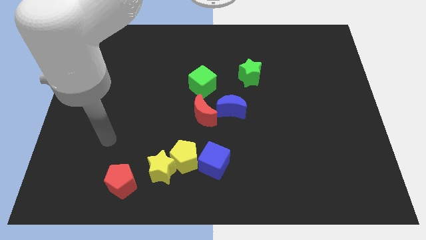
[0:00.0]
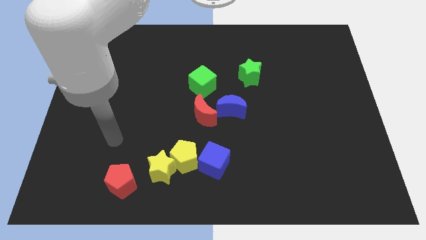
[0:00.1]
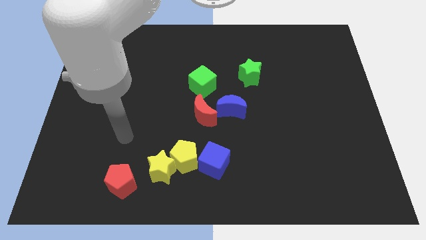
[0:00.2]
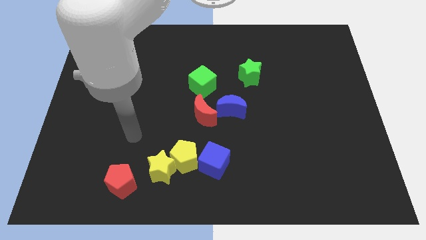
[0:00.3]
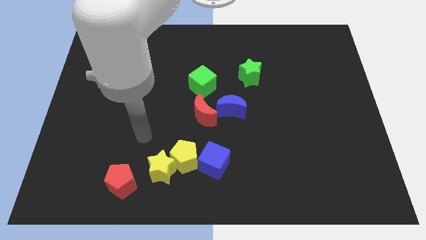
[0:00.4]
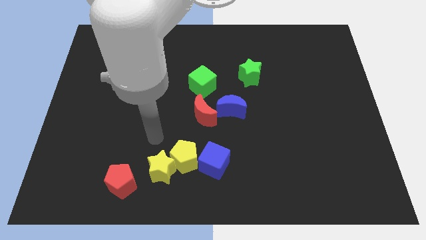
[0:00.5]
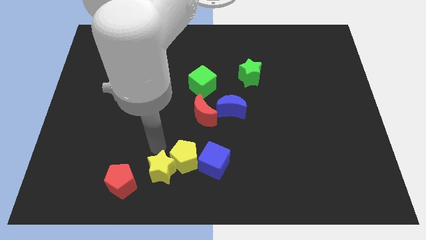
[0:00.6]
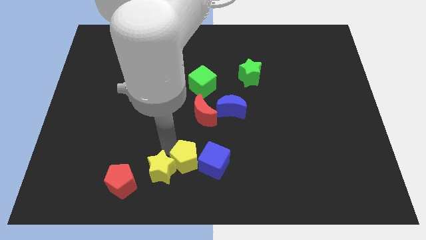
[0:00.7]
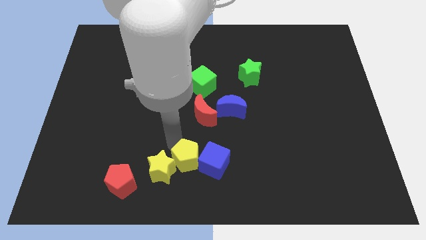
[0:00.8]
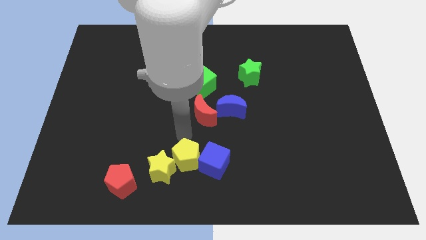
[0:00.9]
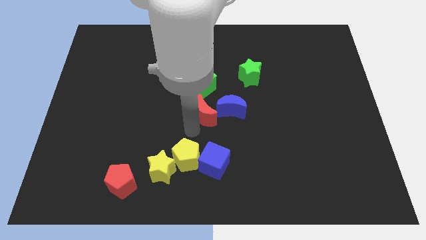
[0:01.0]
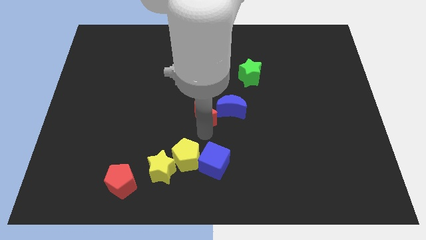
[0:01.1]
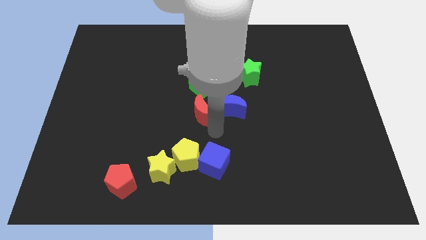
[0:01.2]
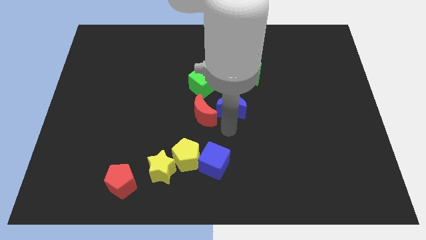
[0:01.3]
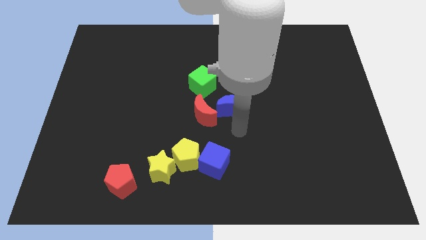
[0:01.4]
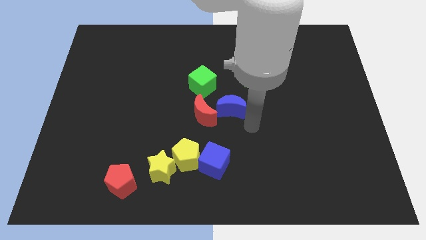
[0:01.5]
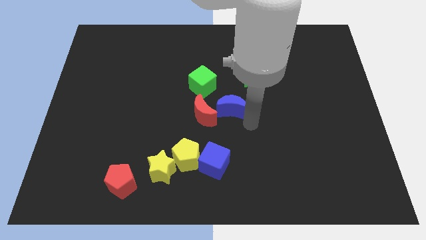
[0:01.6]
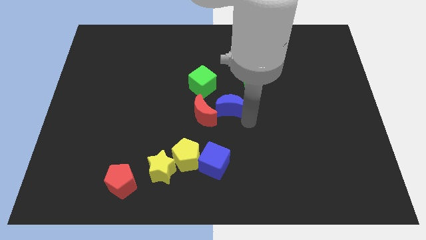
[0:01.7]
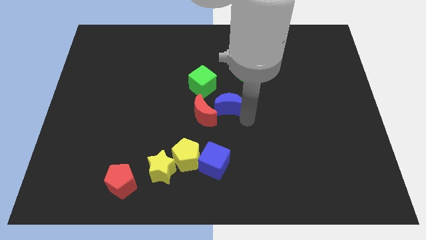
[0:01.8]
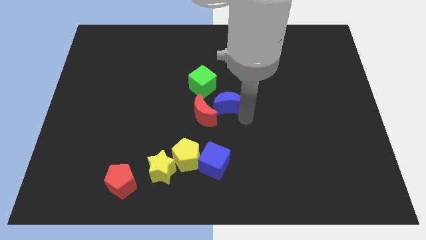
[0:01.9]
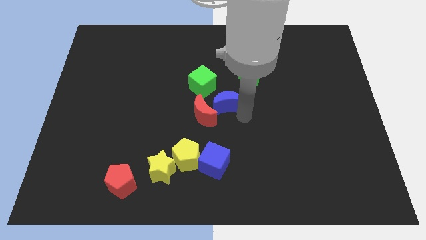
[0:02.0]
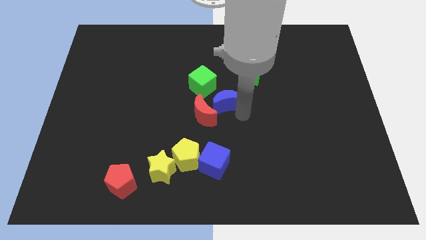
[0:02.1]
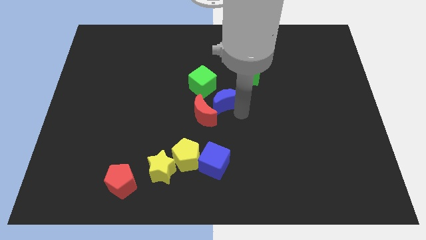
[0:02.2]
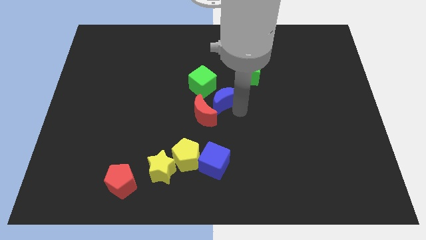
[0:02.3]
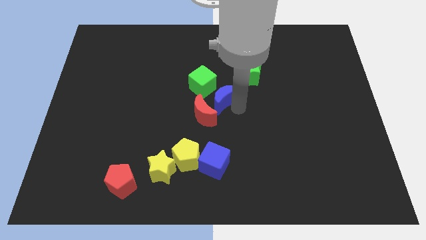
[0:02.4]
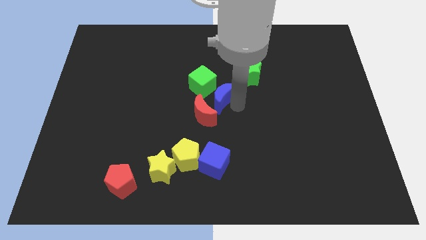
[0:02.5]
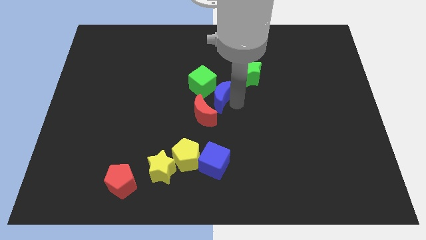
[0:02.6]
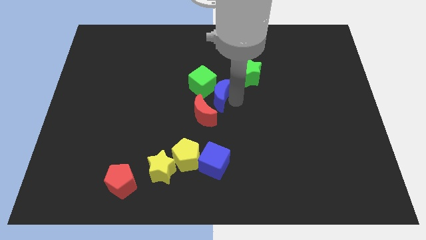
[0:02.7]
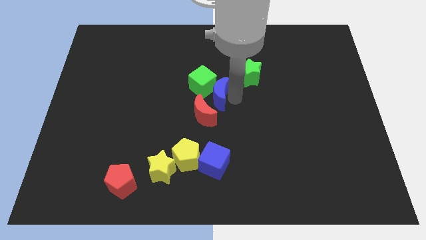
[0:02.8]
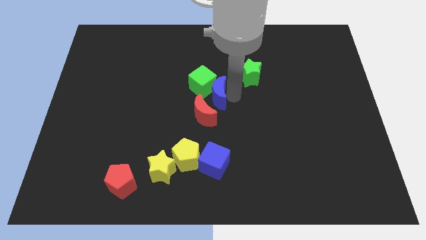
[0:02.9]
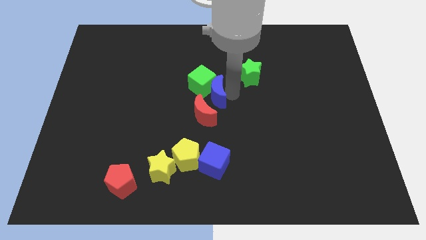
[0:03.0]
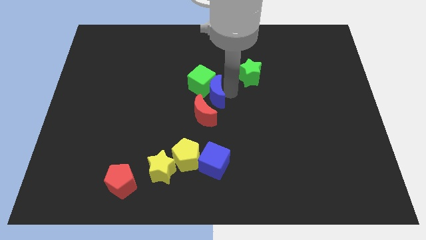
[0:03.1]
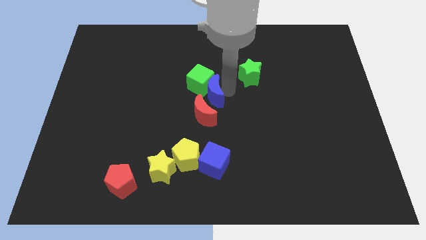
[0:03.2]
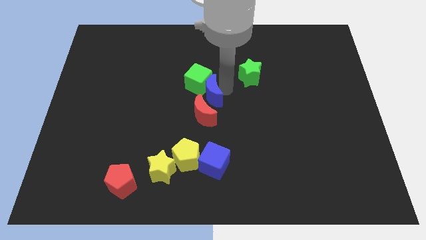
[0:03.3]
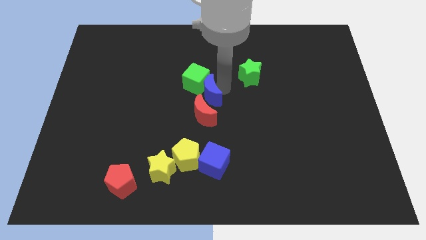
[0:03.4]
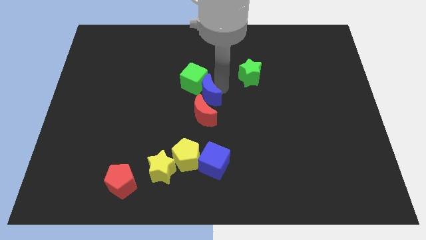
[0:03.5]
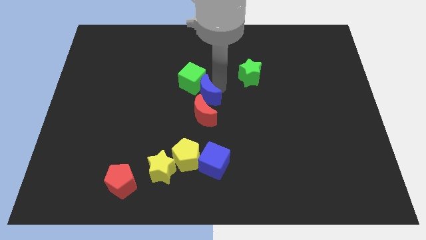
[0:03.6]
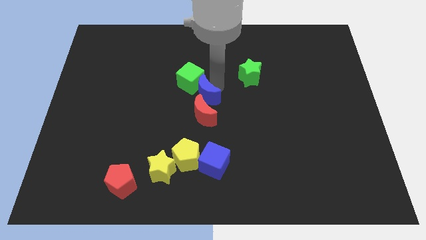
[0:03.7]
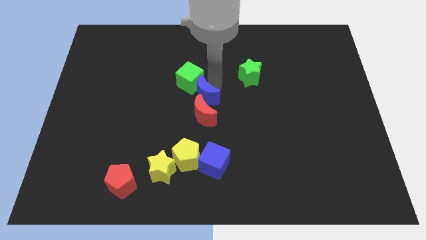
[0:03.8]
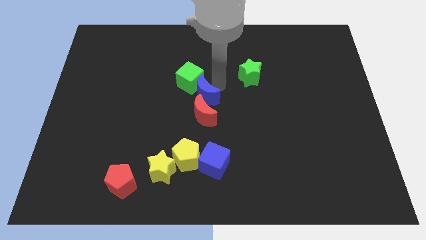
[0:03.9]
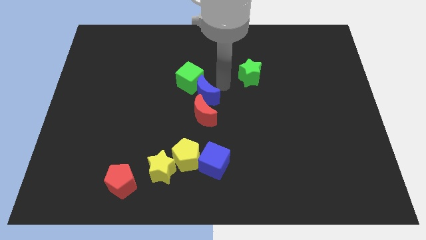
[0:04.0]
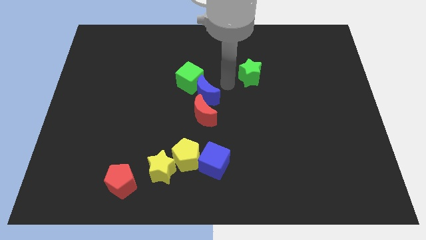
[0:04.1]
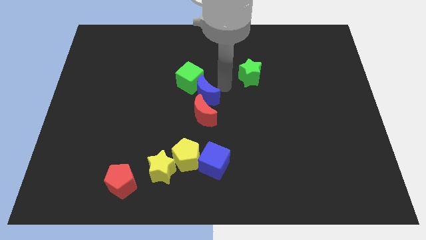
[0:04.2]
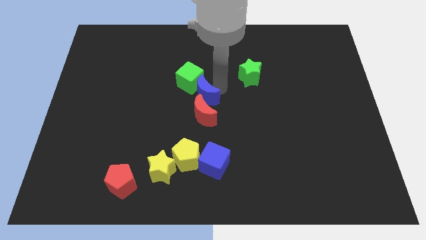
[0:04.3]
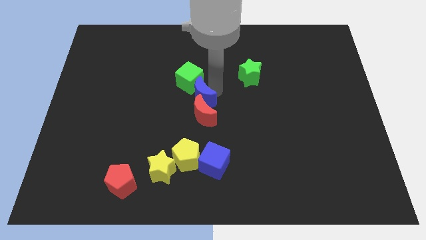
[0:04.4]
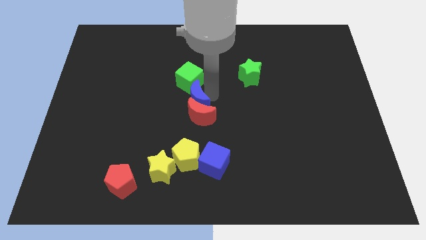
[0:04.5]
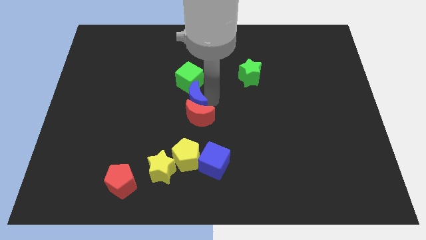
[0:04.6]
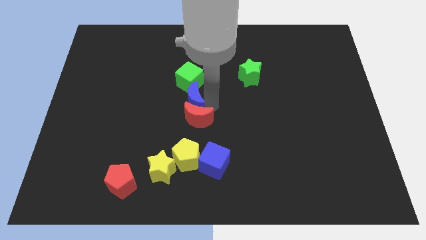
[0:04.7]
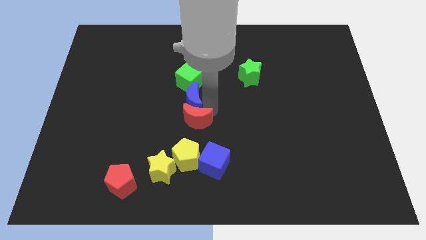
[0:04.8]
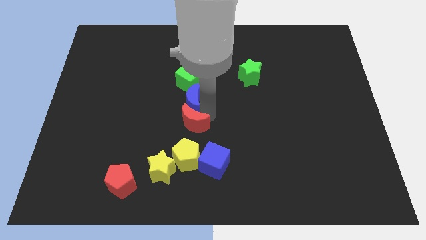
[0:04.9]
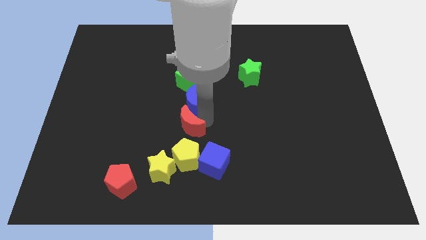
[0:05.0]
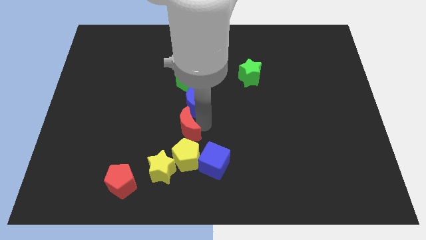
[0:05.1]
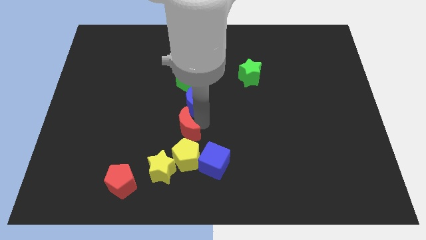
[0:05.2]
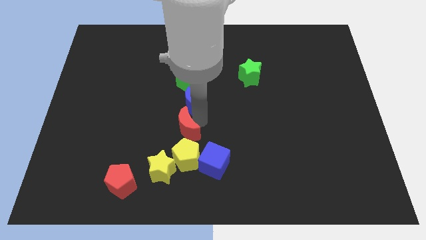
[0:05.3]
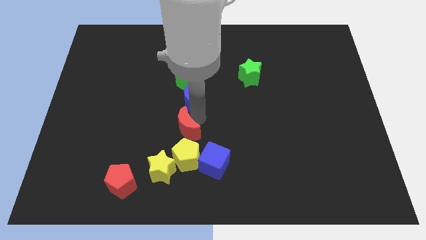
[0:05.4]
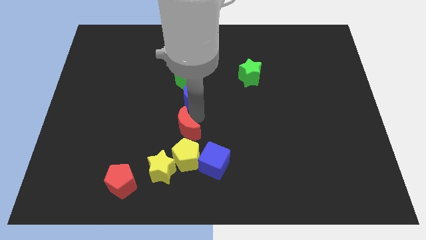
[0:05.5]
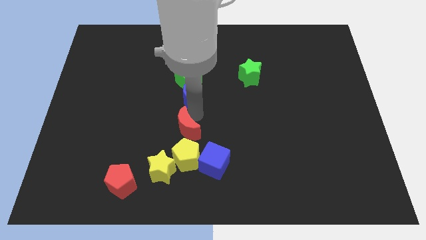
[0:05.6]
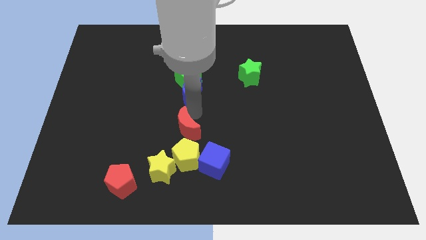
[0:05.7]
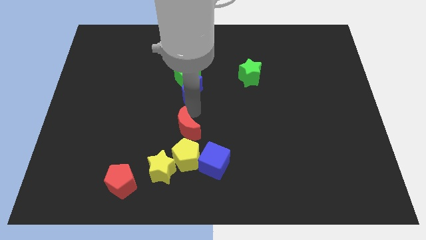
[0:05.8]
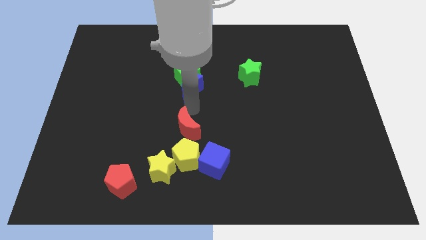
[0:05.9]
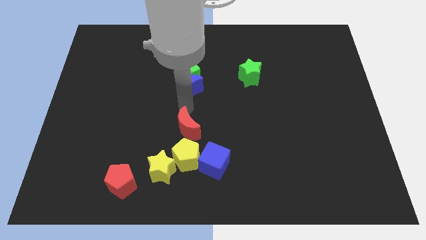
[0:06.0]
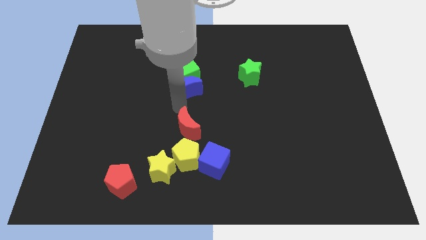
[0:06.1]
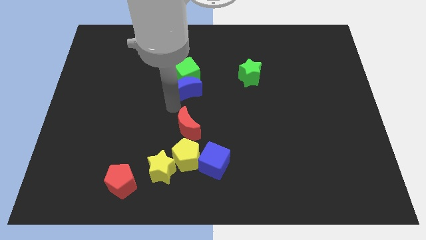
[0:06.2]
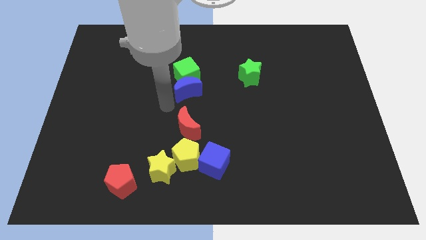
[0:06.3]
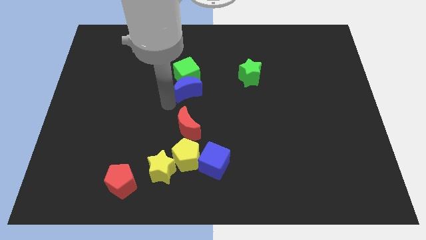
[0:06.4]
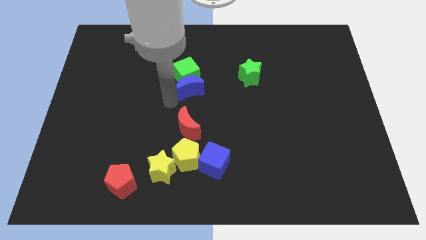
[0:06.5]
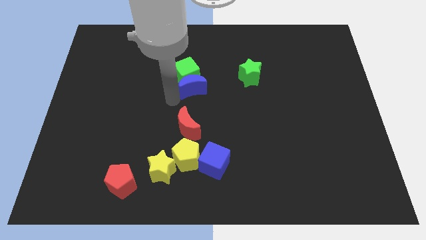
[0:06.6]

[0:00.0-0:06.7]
slide the blue moon to the left side of the green star

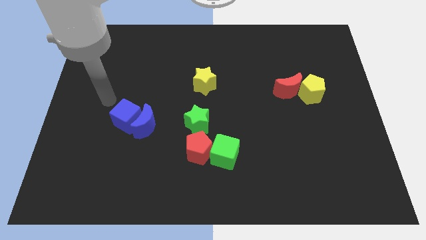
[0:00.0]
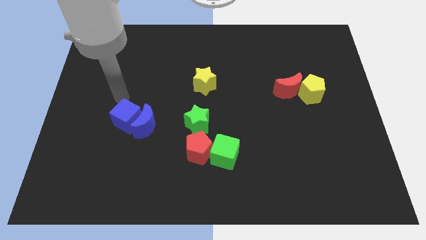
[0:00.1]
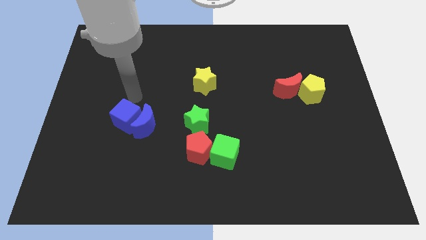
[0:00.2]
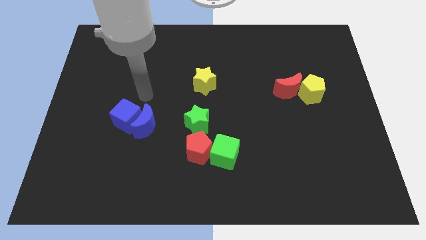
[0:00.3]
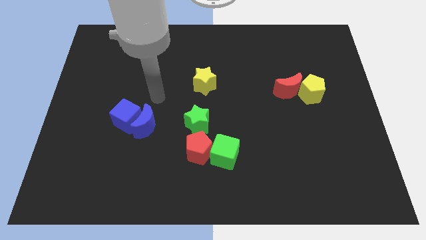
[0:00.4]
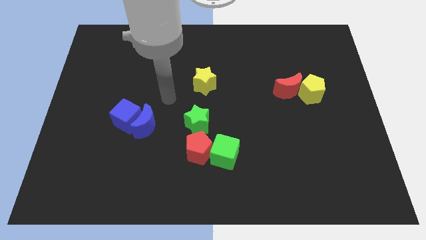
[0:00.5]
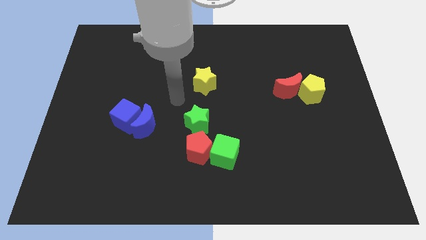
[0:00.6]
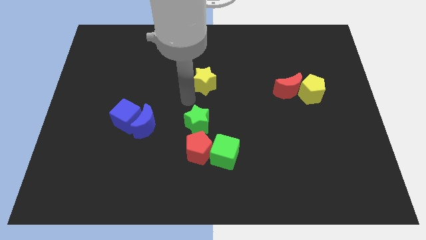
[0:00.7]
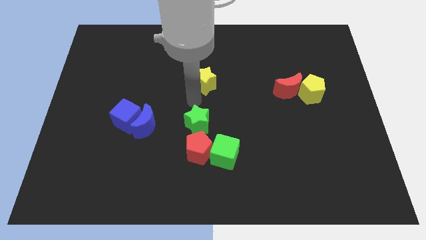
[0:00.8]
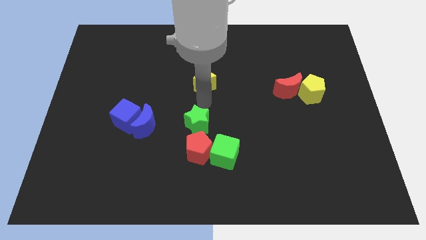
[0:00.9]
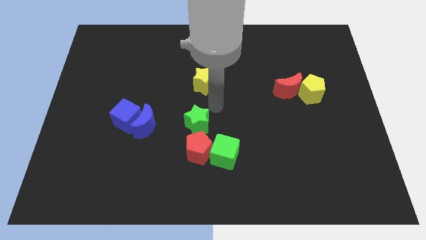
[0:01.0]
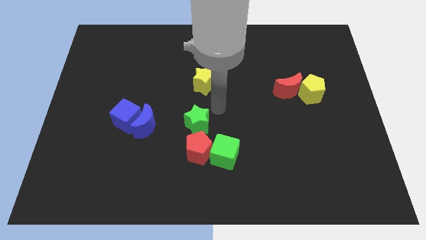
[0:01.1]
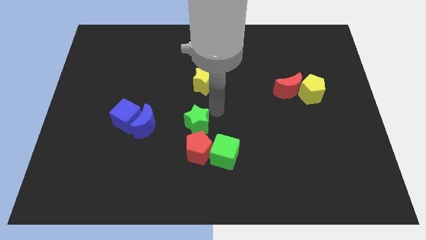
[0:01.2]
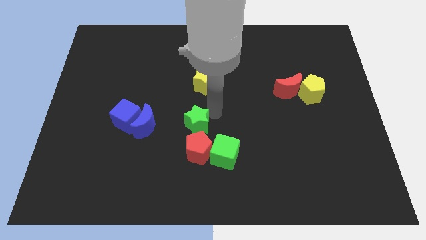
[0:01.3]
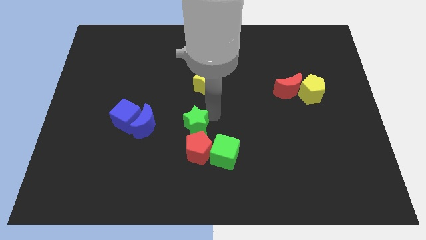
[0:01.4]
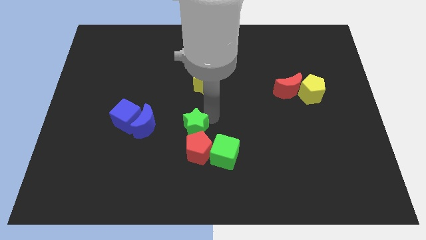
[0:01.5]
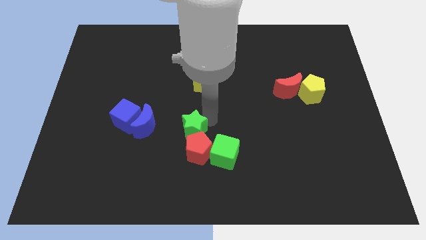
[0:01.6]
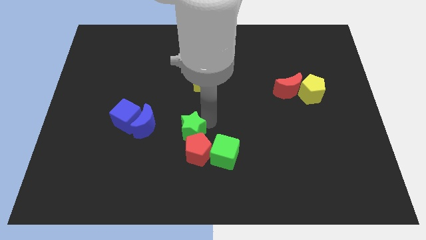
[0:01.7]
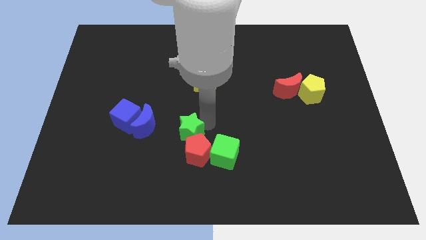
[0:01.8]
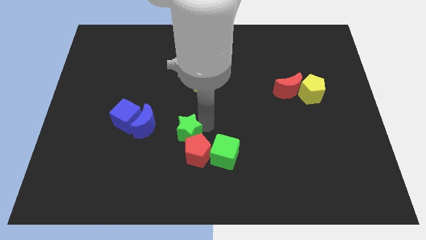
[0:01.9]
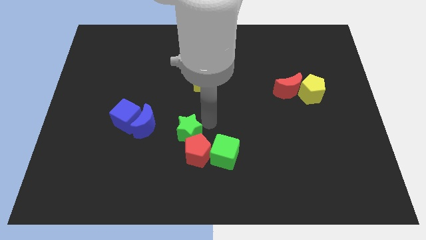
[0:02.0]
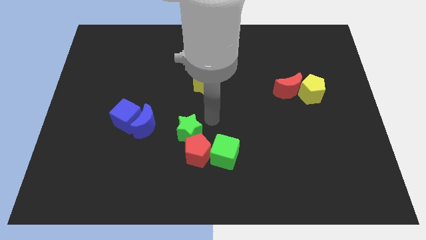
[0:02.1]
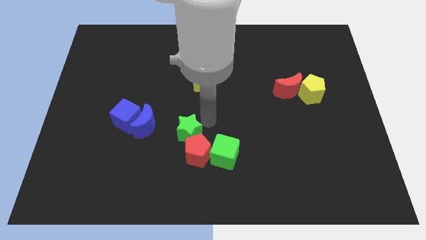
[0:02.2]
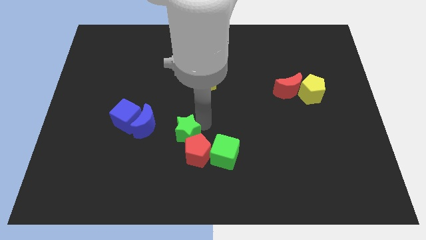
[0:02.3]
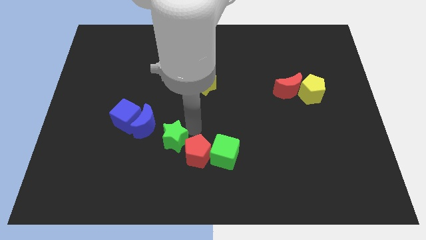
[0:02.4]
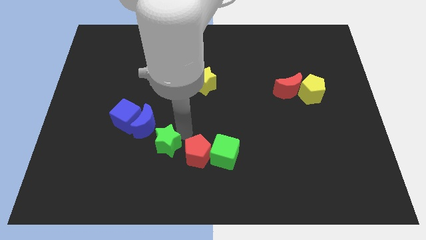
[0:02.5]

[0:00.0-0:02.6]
slide the green star below the blue moon
